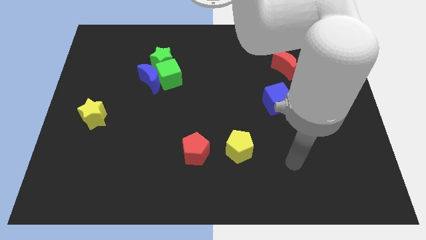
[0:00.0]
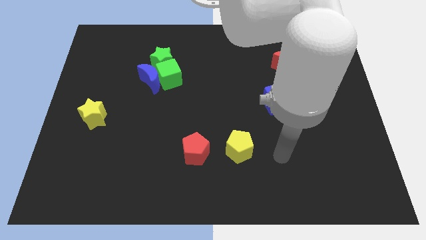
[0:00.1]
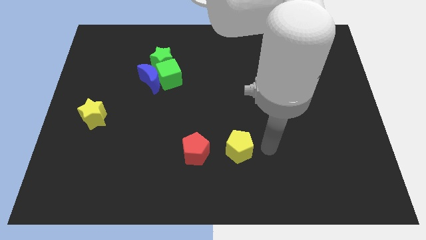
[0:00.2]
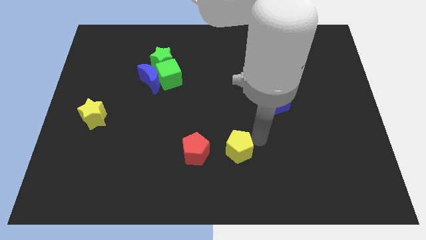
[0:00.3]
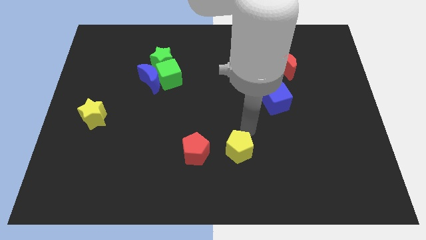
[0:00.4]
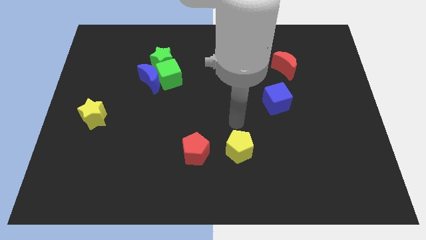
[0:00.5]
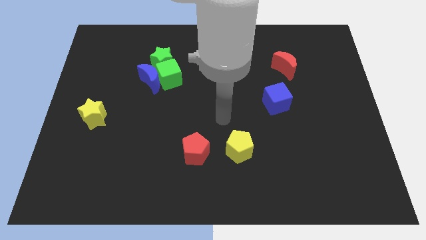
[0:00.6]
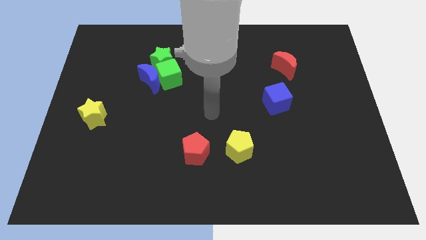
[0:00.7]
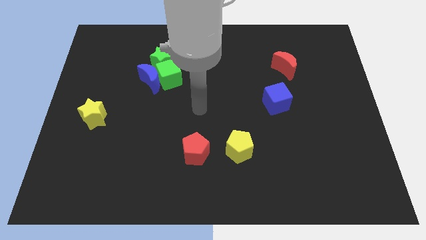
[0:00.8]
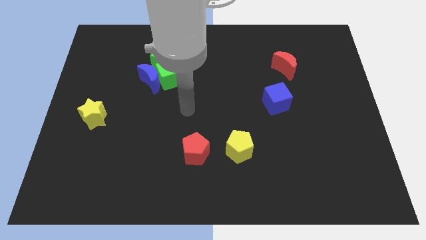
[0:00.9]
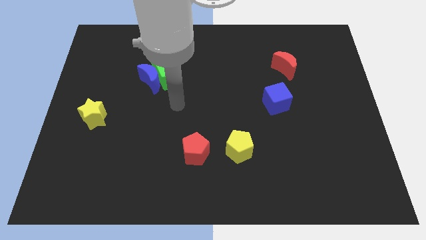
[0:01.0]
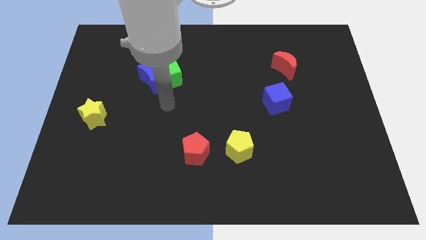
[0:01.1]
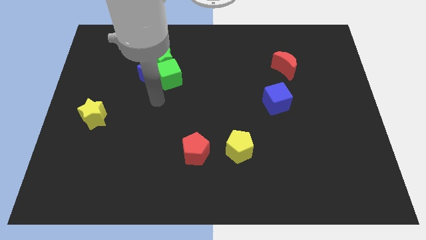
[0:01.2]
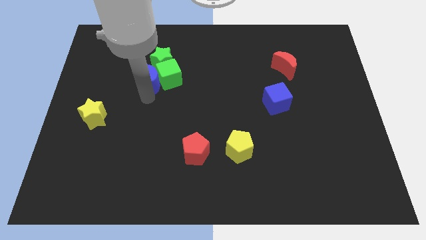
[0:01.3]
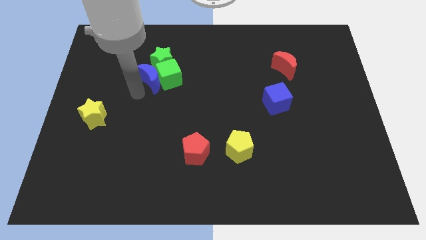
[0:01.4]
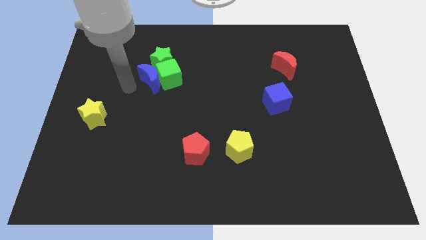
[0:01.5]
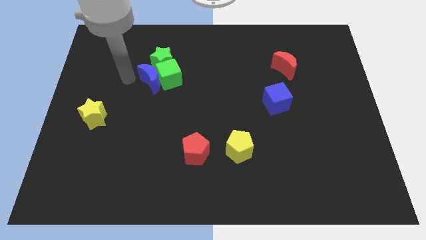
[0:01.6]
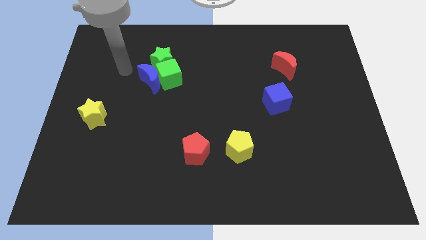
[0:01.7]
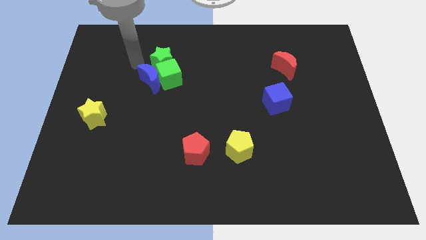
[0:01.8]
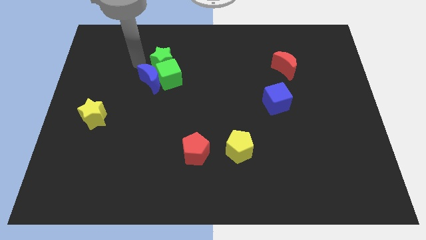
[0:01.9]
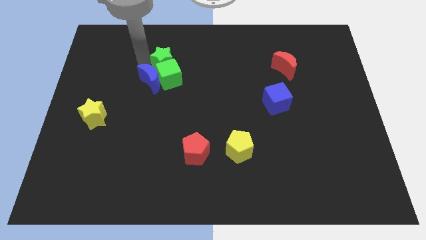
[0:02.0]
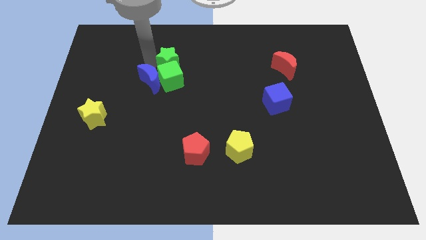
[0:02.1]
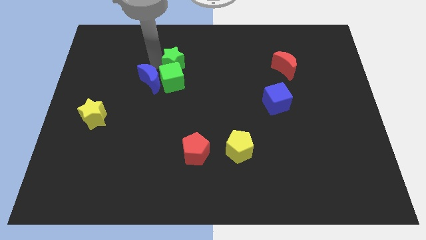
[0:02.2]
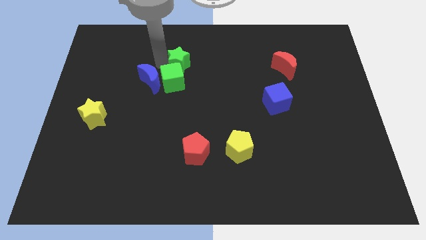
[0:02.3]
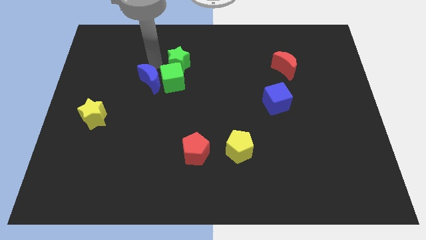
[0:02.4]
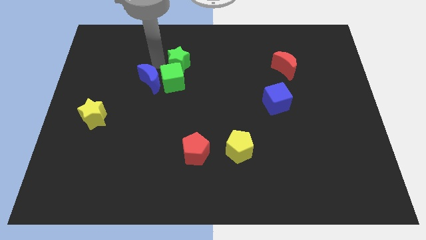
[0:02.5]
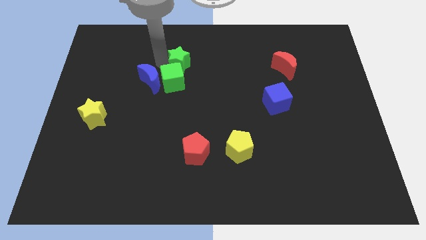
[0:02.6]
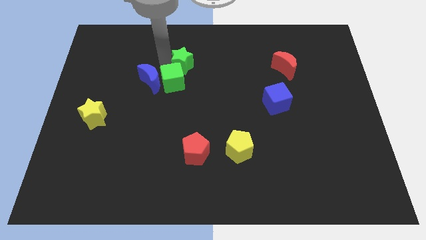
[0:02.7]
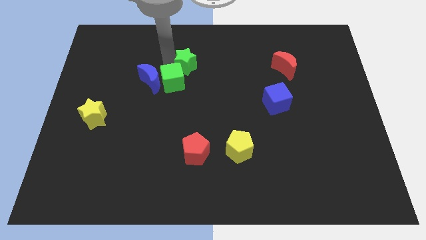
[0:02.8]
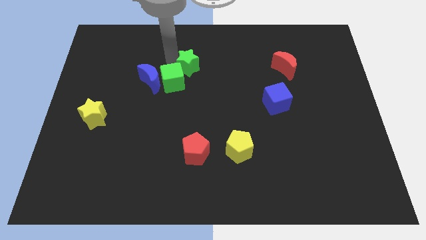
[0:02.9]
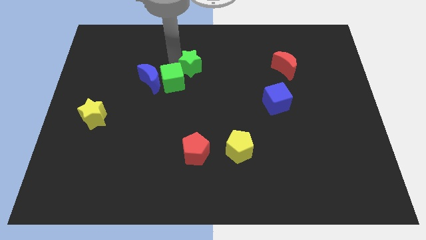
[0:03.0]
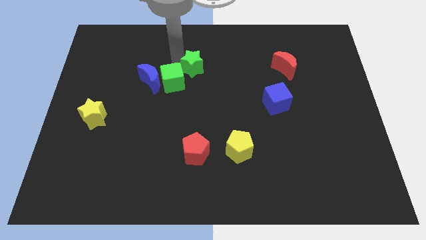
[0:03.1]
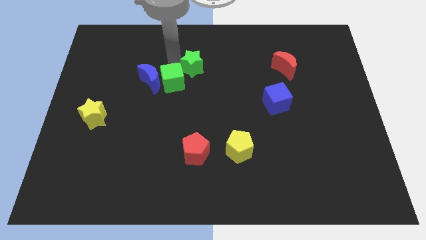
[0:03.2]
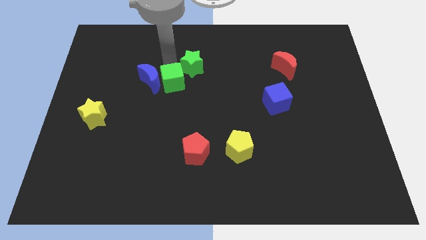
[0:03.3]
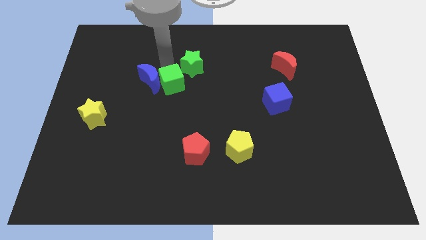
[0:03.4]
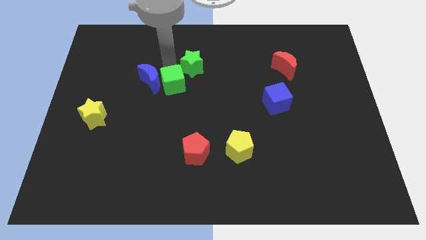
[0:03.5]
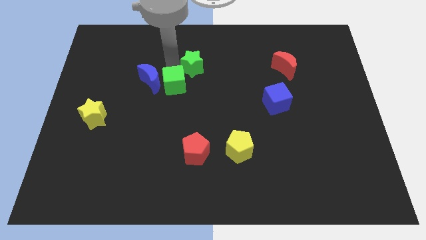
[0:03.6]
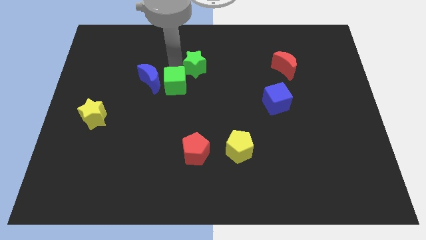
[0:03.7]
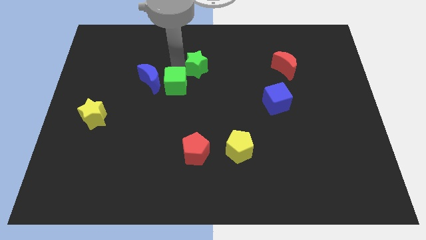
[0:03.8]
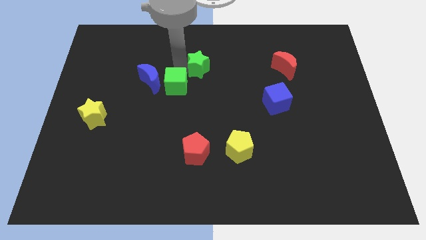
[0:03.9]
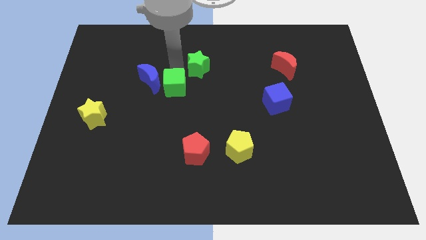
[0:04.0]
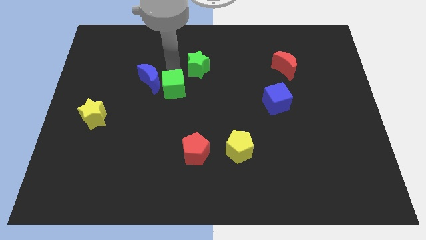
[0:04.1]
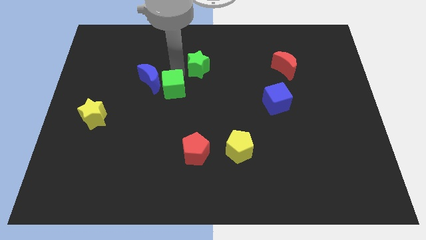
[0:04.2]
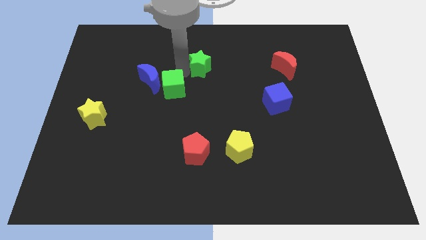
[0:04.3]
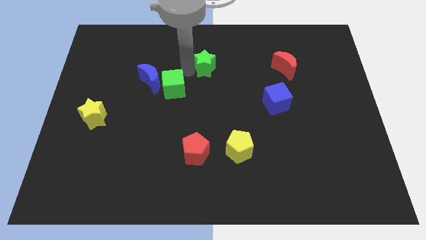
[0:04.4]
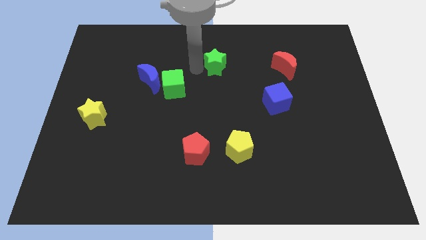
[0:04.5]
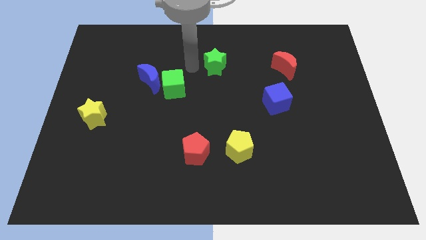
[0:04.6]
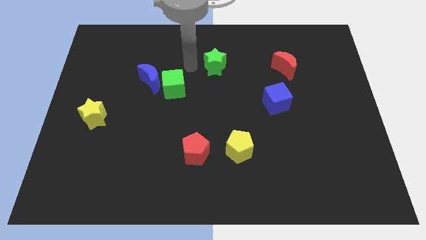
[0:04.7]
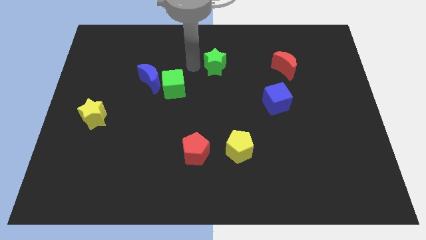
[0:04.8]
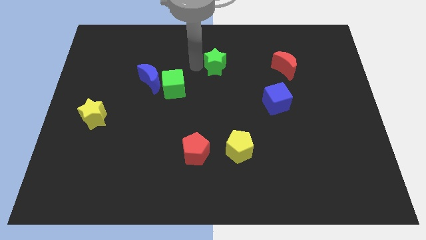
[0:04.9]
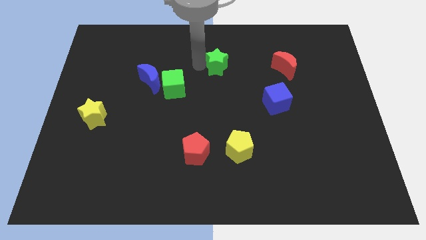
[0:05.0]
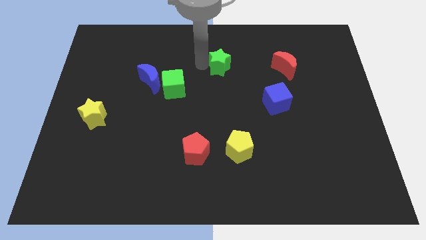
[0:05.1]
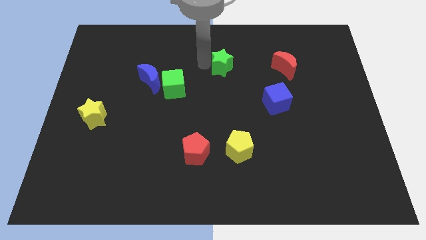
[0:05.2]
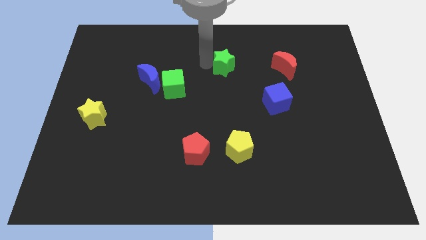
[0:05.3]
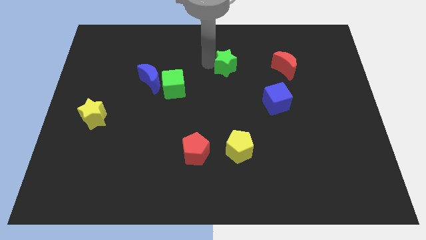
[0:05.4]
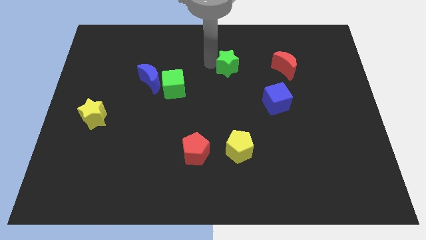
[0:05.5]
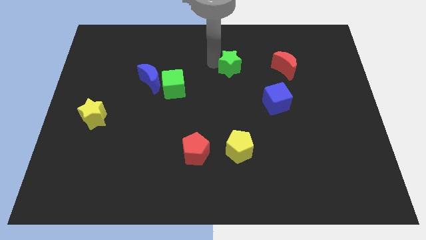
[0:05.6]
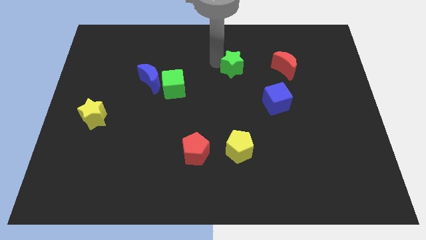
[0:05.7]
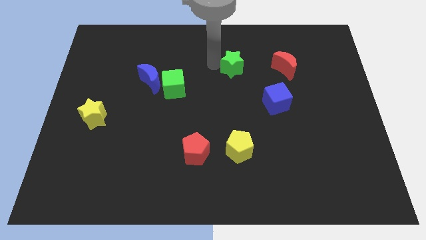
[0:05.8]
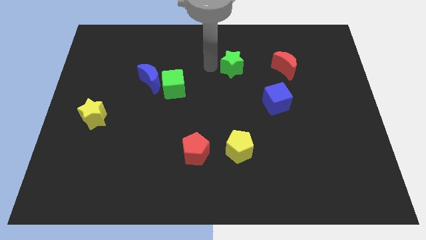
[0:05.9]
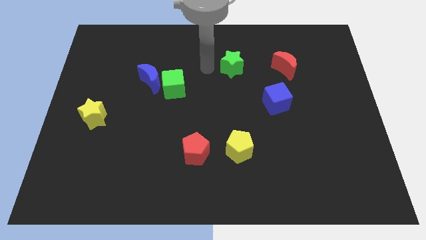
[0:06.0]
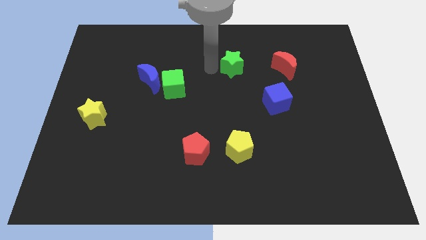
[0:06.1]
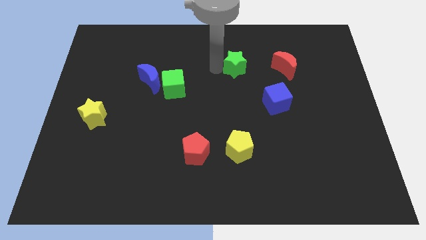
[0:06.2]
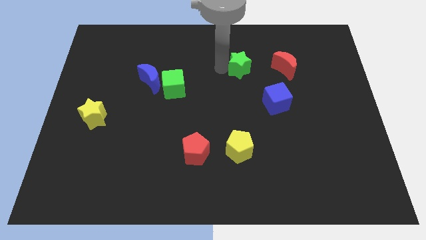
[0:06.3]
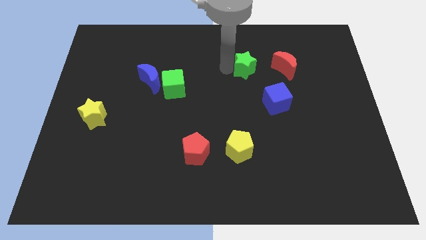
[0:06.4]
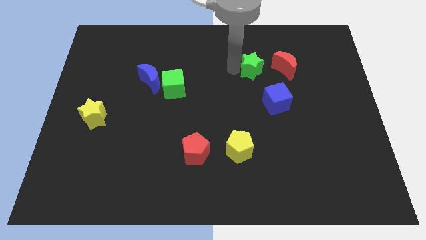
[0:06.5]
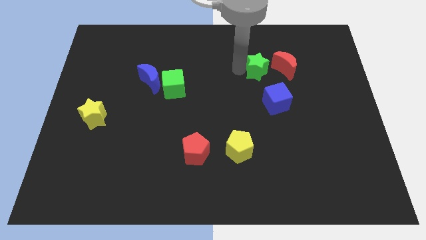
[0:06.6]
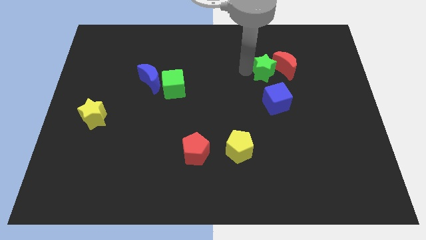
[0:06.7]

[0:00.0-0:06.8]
move the green star close to the red moon

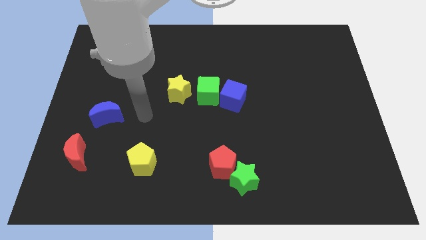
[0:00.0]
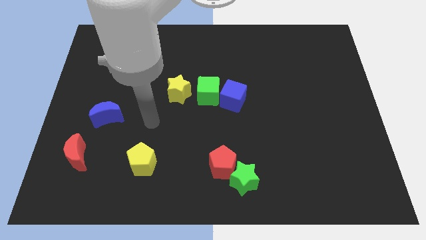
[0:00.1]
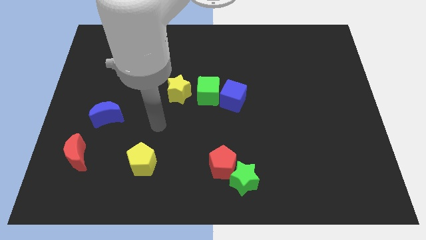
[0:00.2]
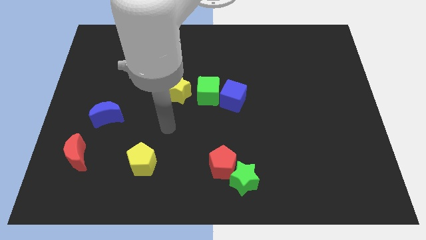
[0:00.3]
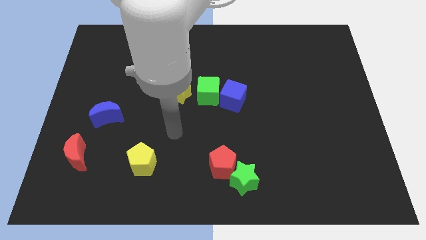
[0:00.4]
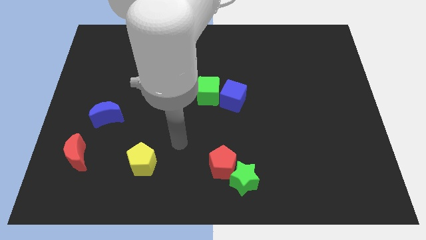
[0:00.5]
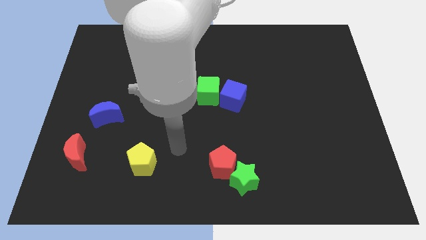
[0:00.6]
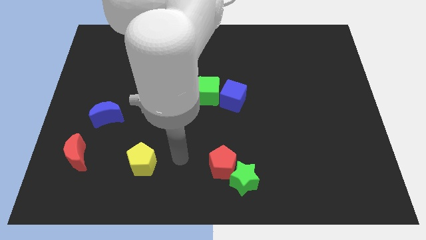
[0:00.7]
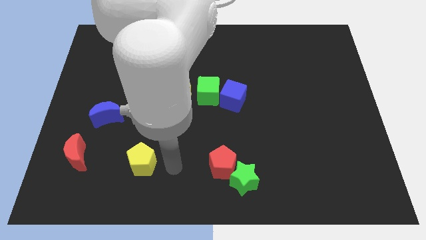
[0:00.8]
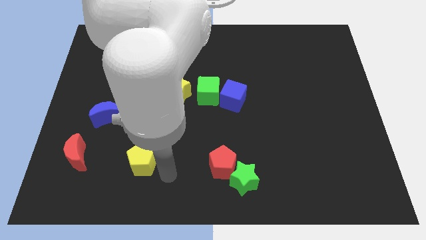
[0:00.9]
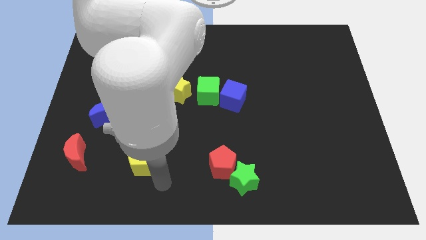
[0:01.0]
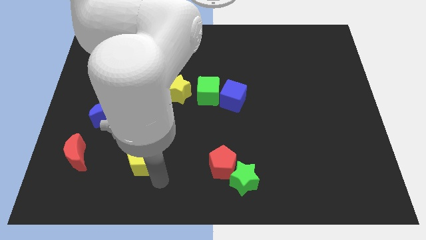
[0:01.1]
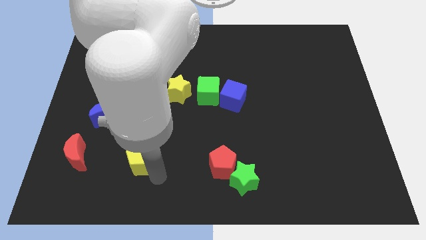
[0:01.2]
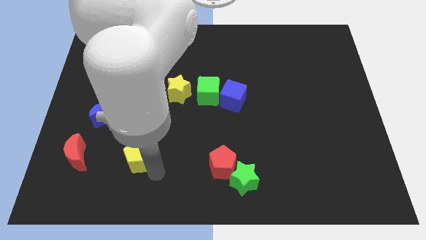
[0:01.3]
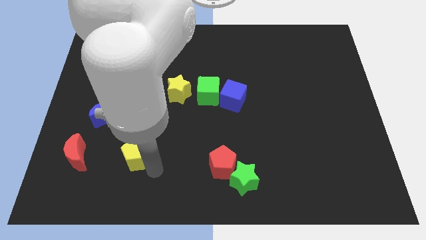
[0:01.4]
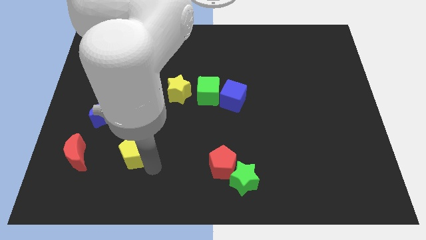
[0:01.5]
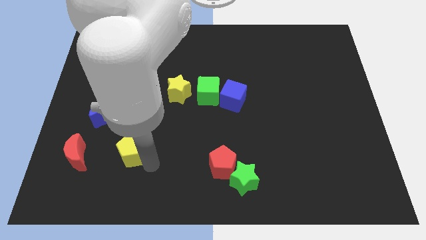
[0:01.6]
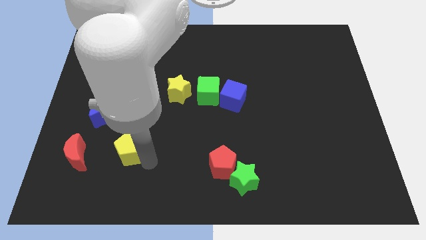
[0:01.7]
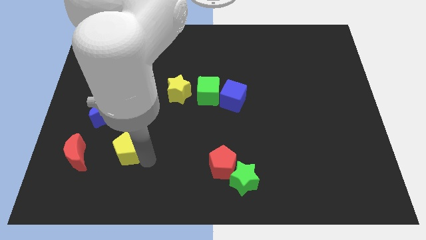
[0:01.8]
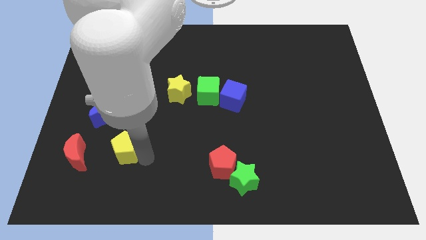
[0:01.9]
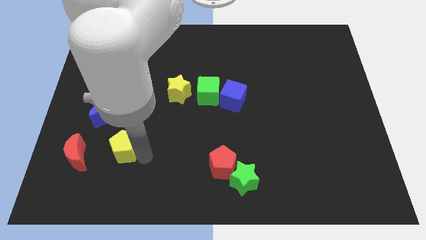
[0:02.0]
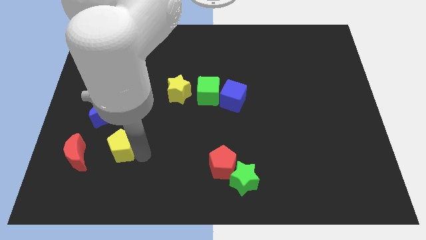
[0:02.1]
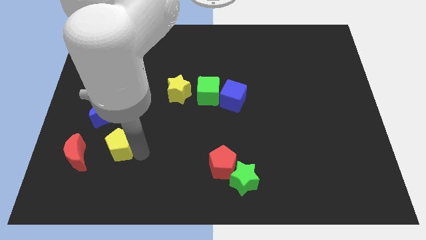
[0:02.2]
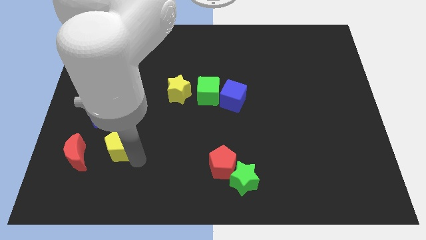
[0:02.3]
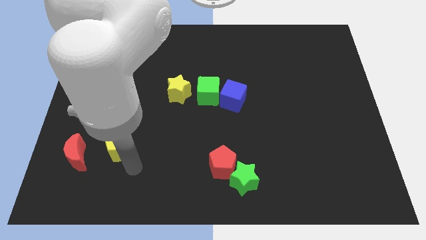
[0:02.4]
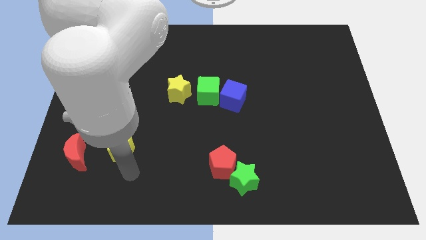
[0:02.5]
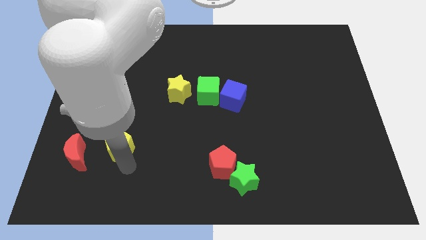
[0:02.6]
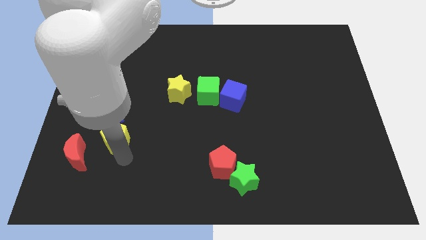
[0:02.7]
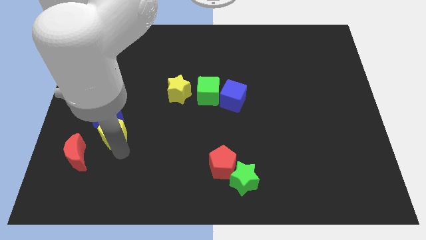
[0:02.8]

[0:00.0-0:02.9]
move the yellow pentagon close to the blue moon
